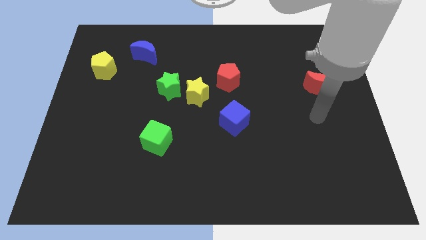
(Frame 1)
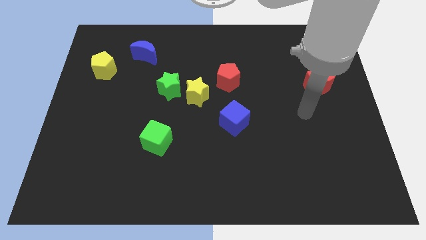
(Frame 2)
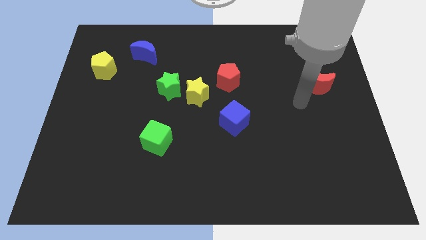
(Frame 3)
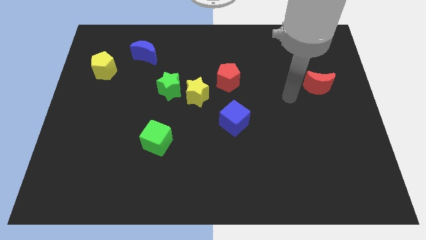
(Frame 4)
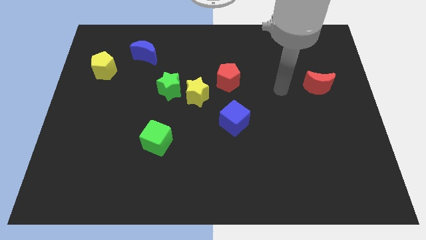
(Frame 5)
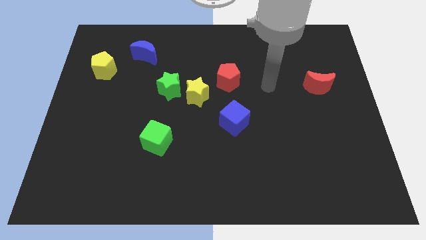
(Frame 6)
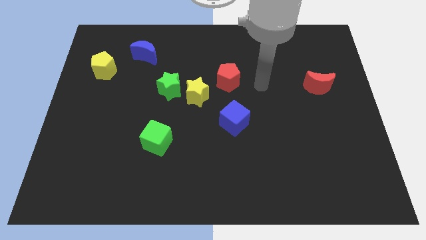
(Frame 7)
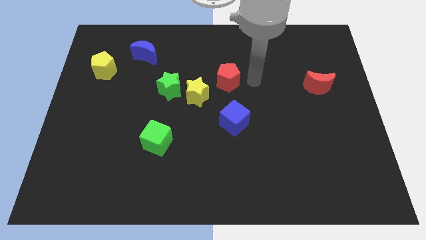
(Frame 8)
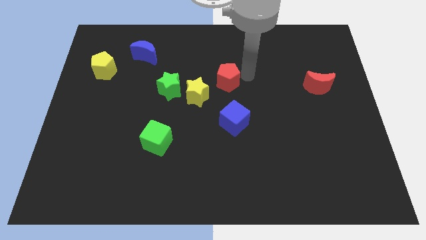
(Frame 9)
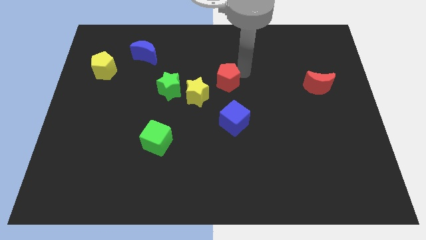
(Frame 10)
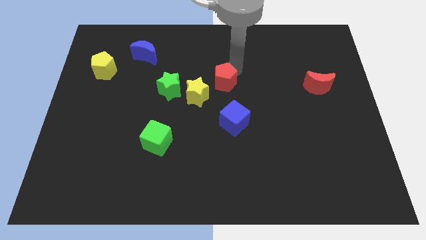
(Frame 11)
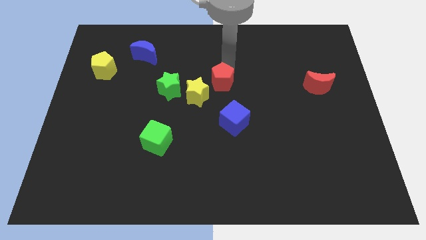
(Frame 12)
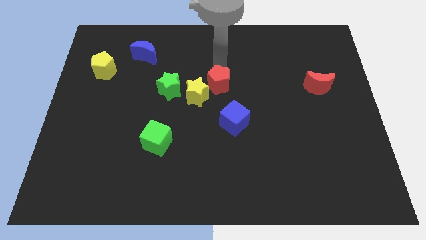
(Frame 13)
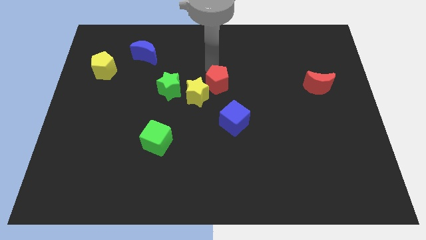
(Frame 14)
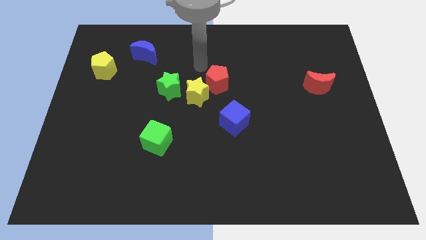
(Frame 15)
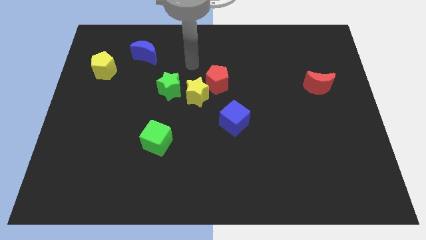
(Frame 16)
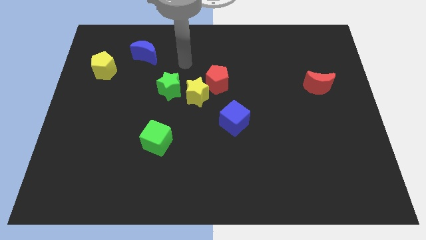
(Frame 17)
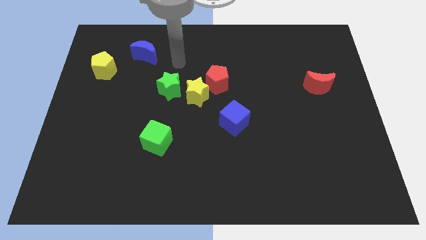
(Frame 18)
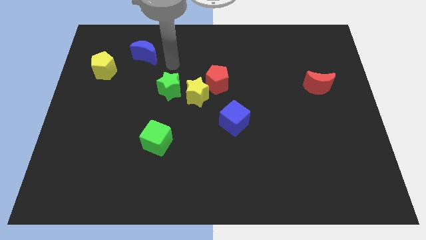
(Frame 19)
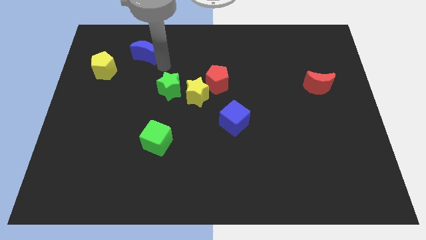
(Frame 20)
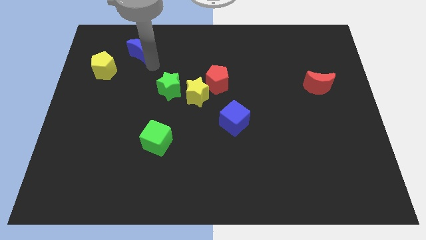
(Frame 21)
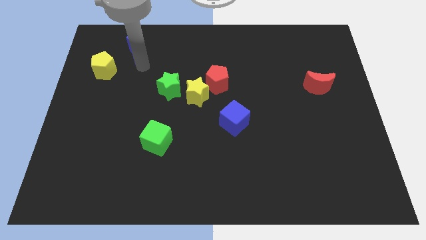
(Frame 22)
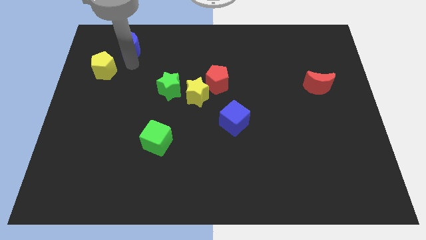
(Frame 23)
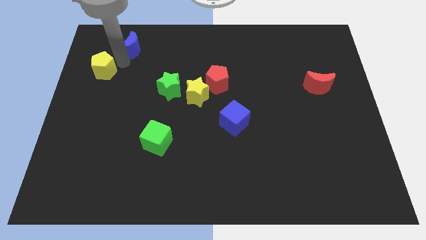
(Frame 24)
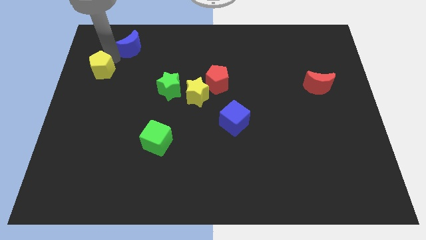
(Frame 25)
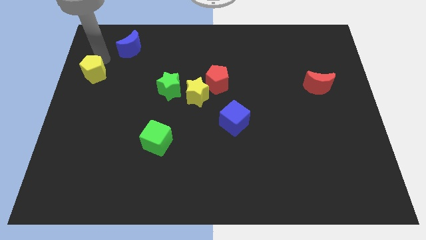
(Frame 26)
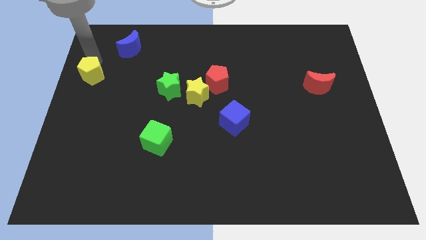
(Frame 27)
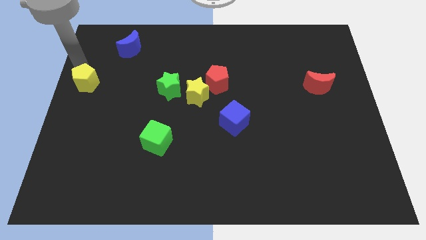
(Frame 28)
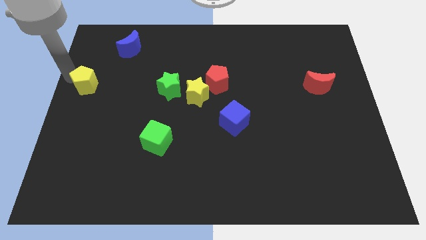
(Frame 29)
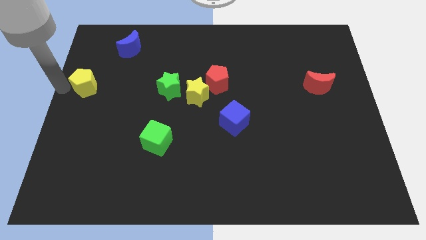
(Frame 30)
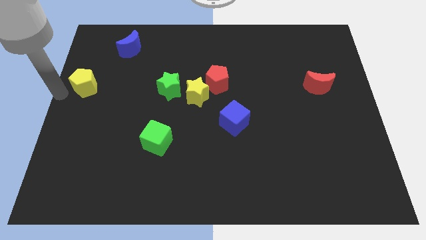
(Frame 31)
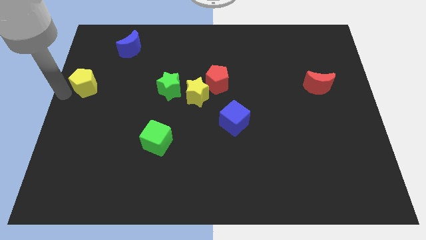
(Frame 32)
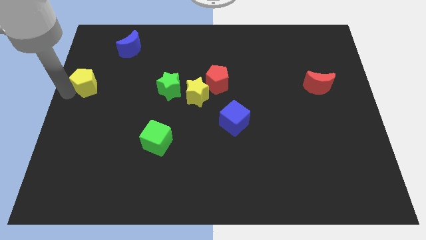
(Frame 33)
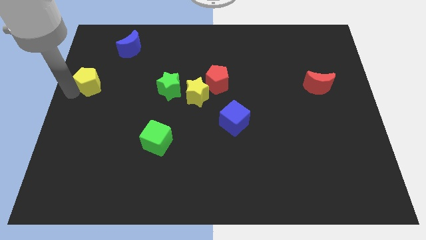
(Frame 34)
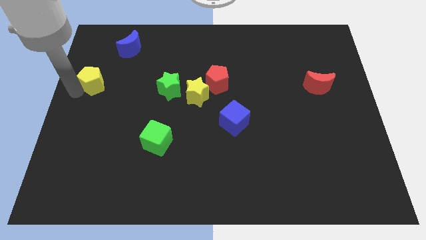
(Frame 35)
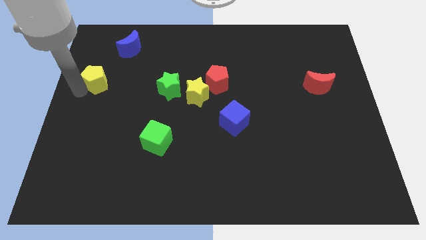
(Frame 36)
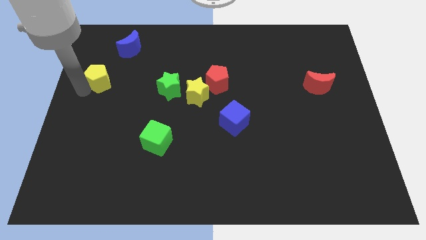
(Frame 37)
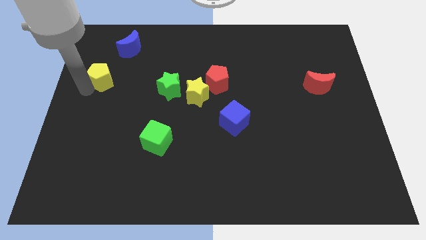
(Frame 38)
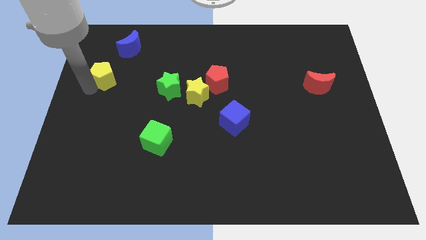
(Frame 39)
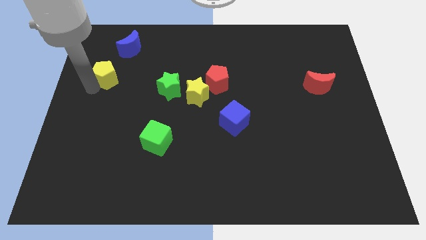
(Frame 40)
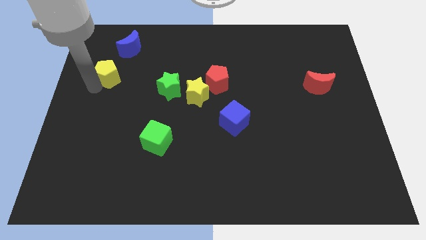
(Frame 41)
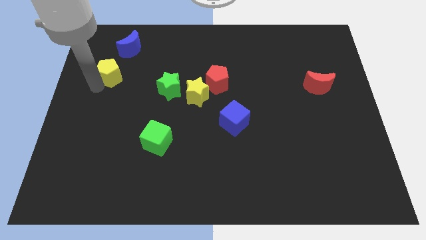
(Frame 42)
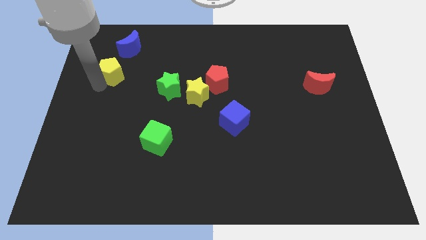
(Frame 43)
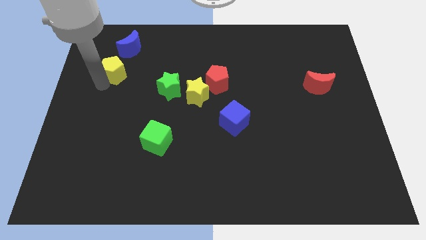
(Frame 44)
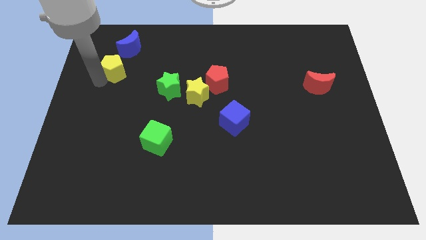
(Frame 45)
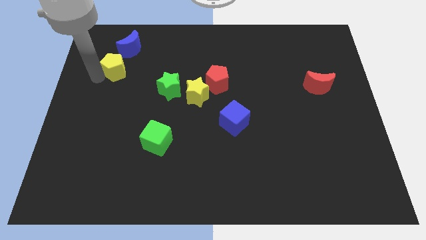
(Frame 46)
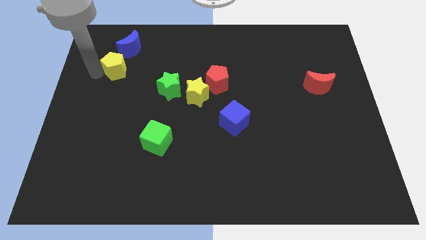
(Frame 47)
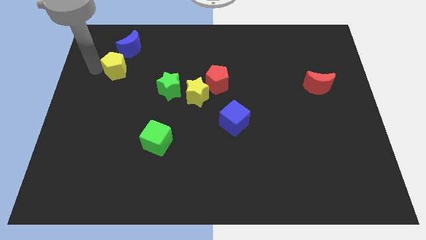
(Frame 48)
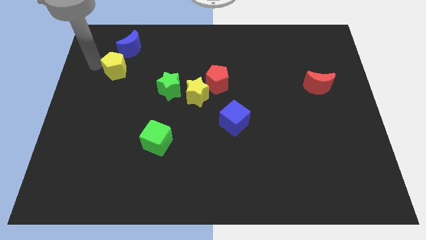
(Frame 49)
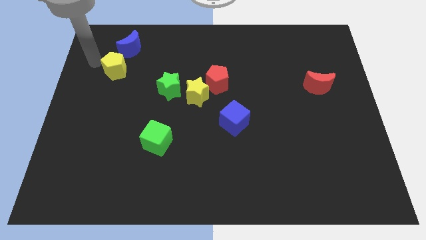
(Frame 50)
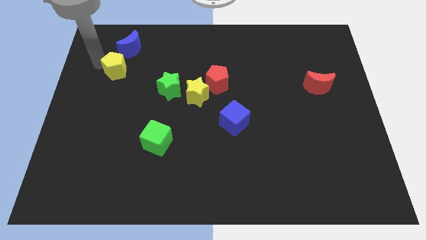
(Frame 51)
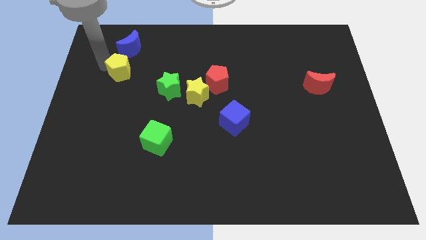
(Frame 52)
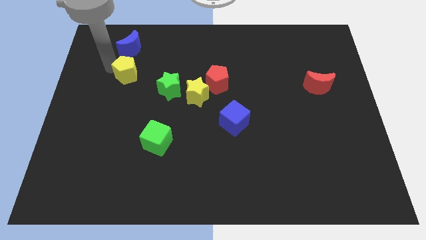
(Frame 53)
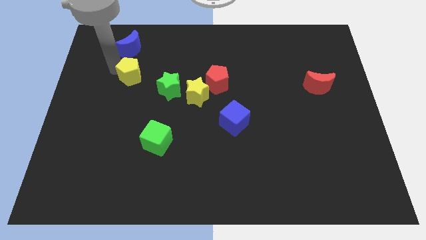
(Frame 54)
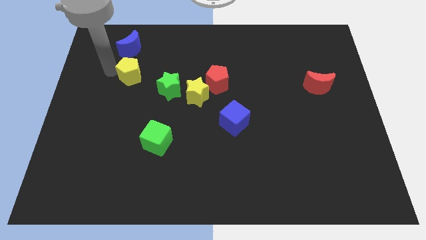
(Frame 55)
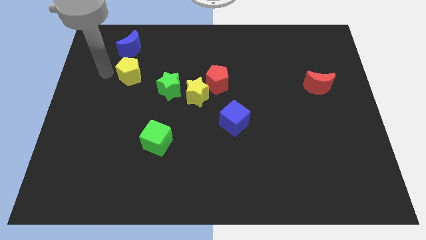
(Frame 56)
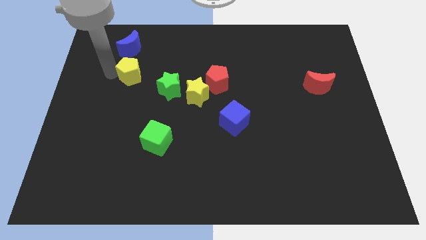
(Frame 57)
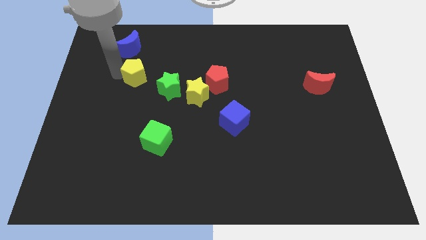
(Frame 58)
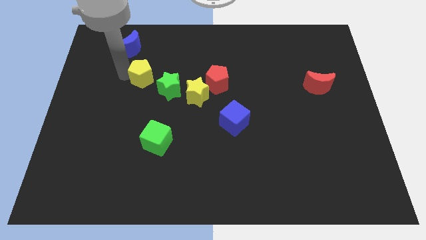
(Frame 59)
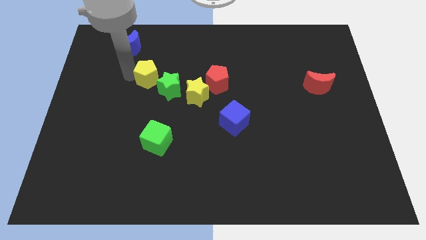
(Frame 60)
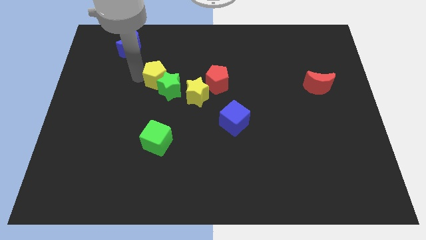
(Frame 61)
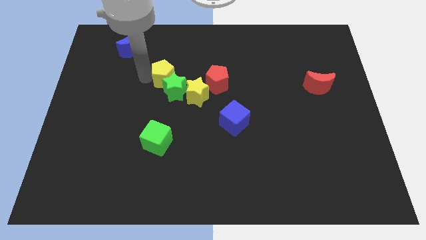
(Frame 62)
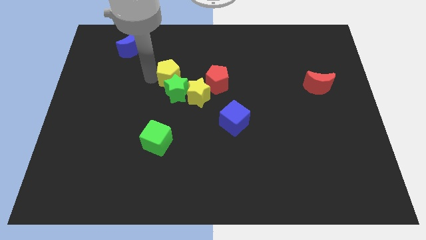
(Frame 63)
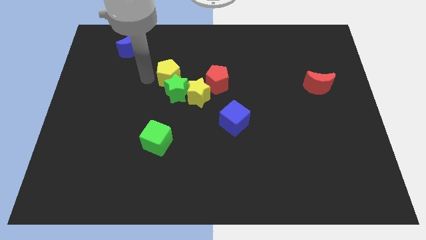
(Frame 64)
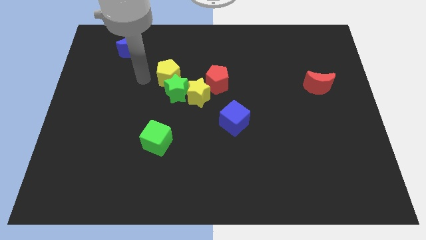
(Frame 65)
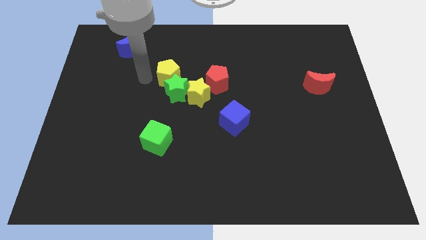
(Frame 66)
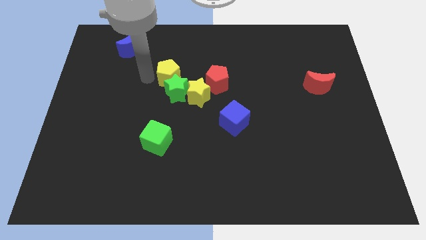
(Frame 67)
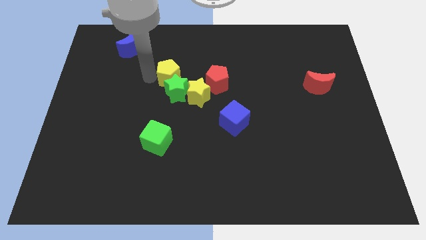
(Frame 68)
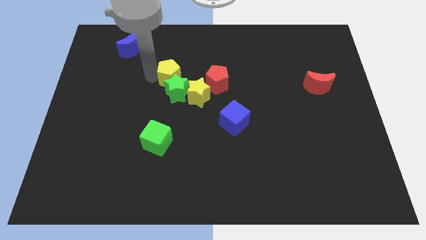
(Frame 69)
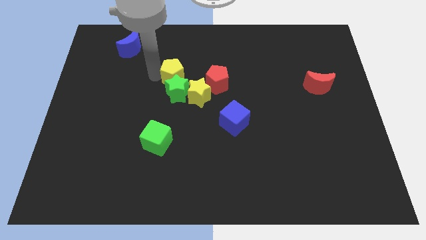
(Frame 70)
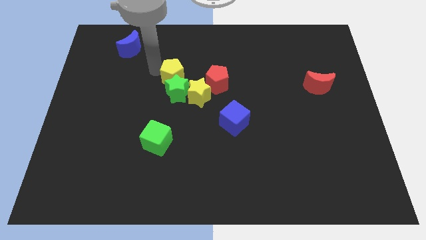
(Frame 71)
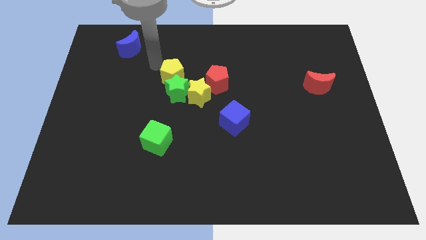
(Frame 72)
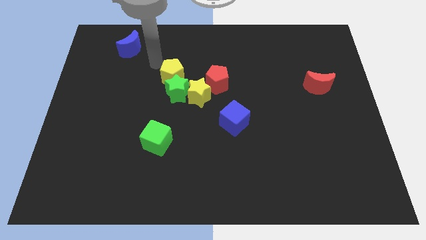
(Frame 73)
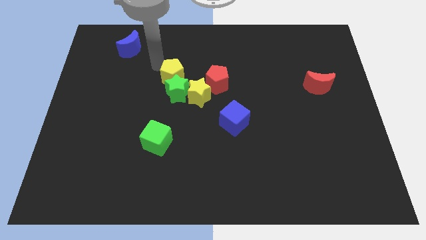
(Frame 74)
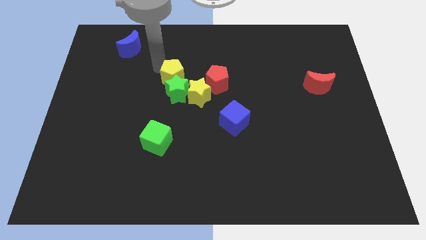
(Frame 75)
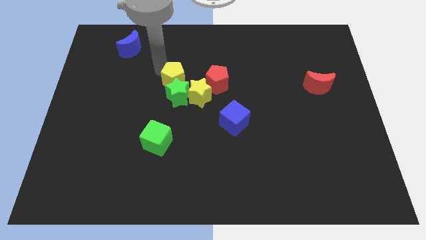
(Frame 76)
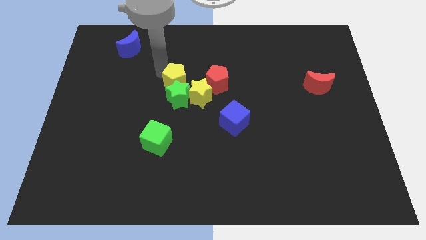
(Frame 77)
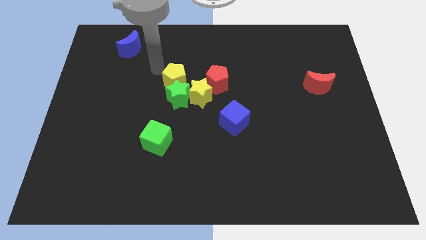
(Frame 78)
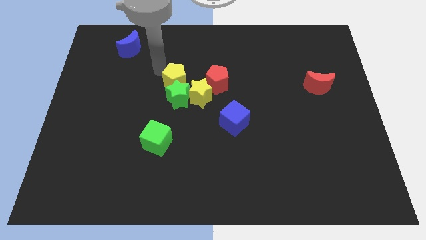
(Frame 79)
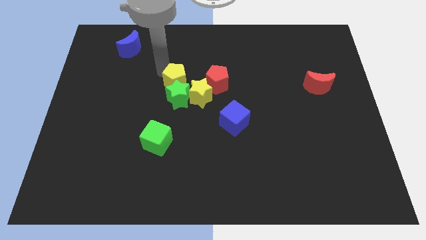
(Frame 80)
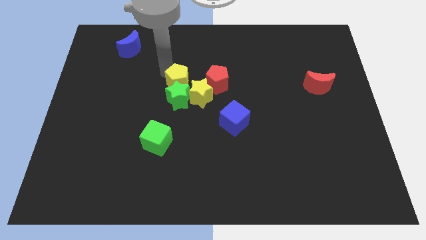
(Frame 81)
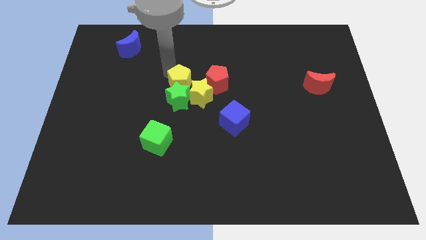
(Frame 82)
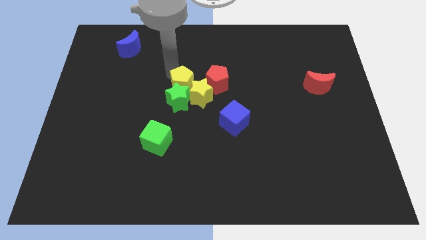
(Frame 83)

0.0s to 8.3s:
move the yellow pentagon towards the yellow star
